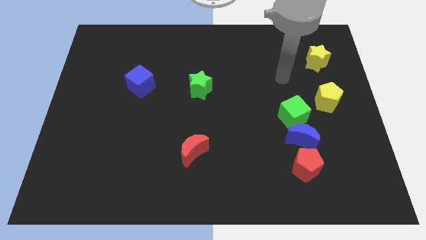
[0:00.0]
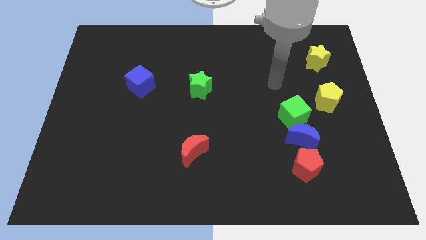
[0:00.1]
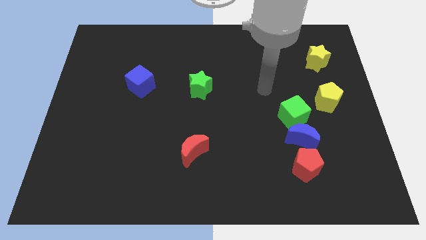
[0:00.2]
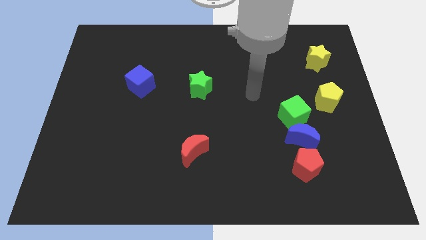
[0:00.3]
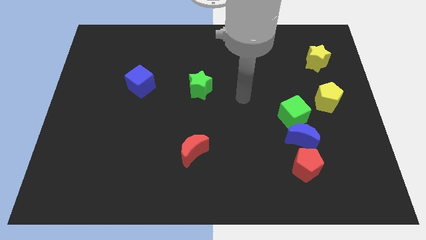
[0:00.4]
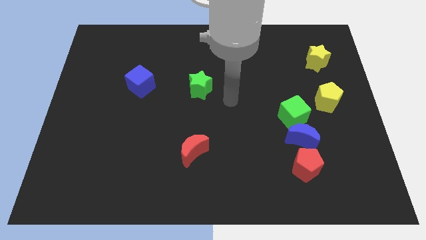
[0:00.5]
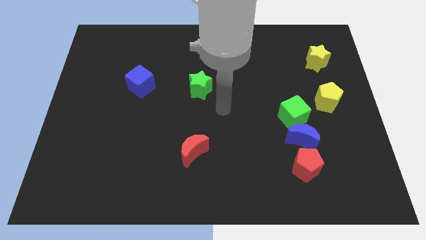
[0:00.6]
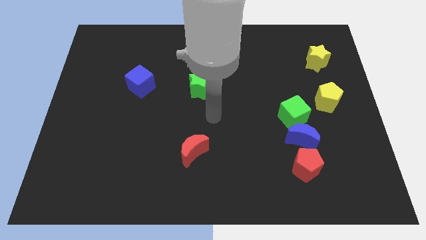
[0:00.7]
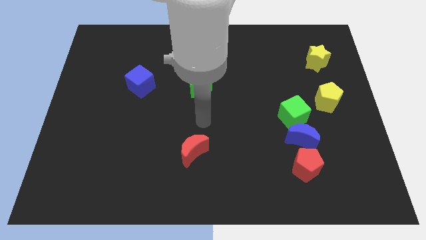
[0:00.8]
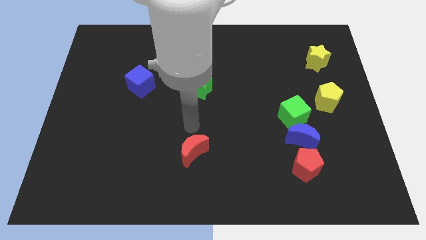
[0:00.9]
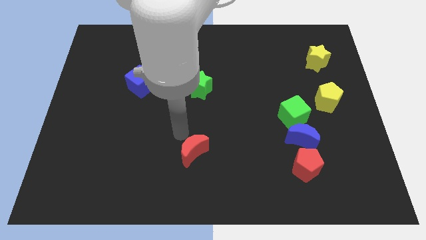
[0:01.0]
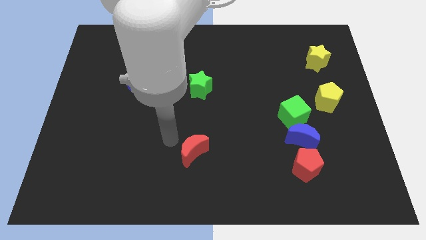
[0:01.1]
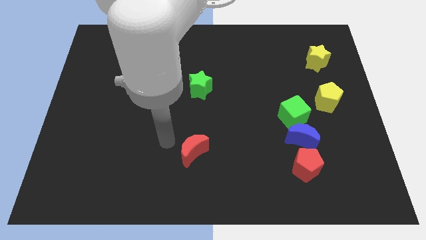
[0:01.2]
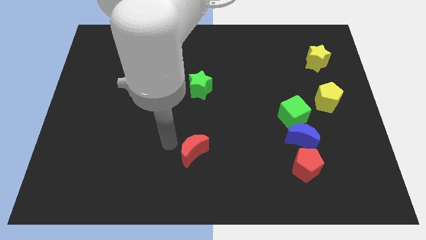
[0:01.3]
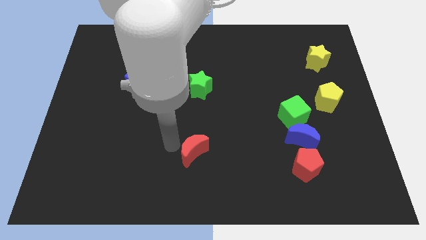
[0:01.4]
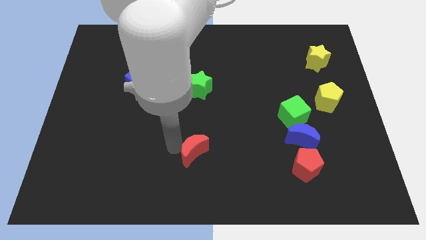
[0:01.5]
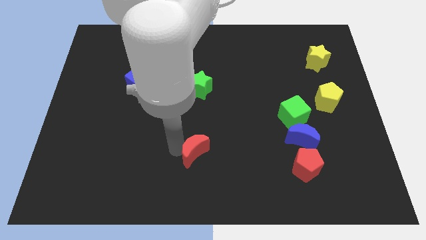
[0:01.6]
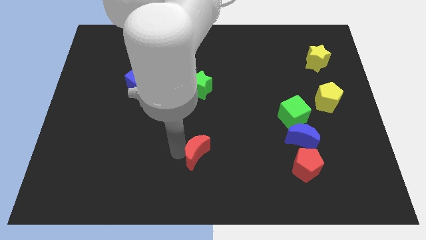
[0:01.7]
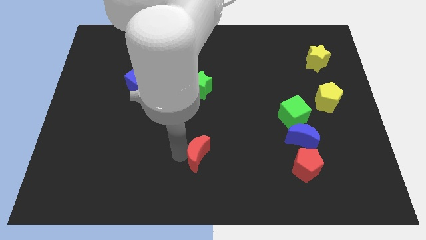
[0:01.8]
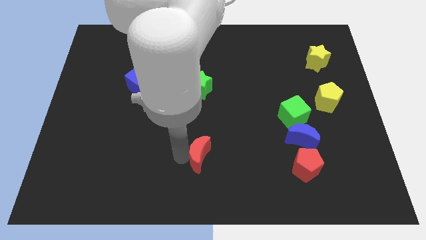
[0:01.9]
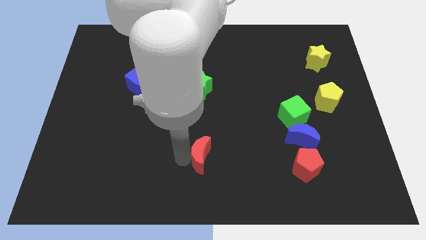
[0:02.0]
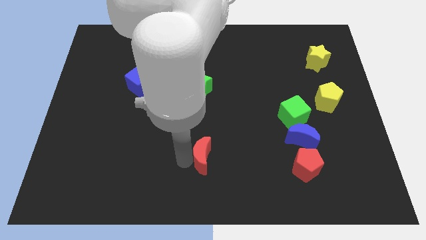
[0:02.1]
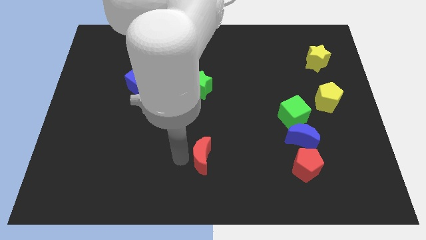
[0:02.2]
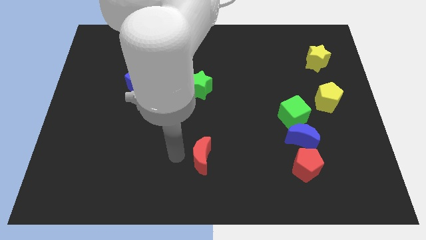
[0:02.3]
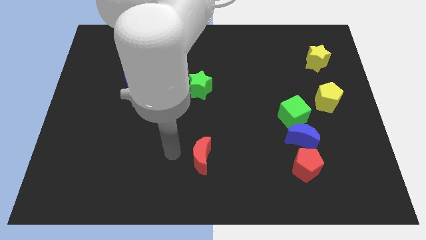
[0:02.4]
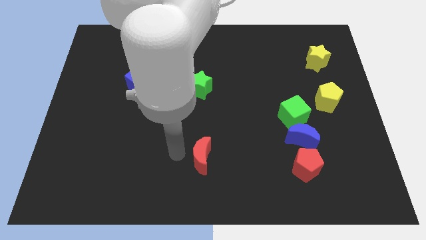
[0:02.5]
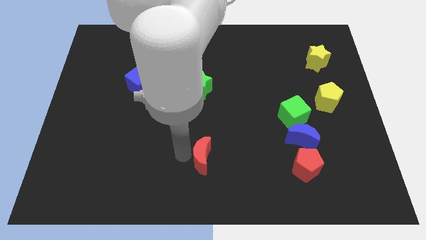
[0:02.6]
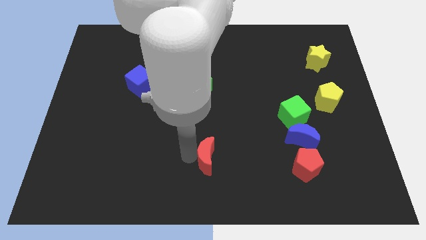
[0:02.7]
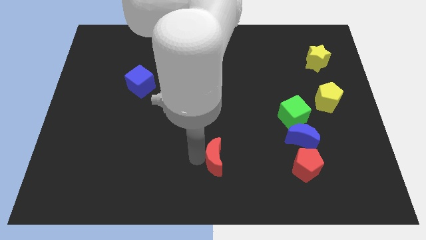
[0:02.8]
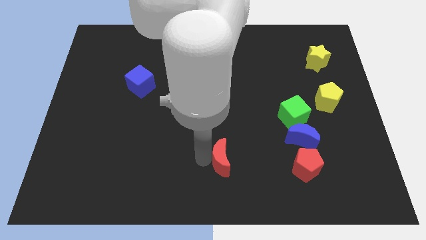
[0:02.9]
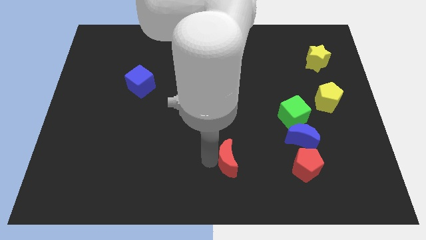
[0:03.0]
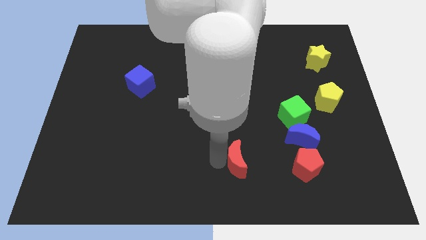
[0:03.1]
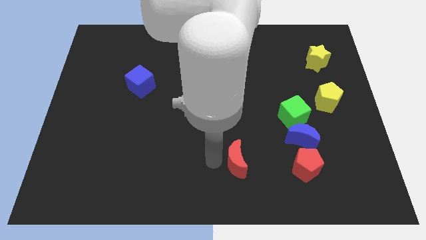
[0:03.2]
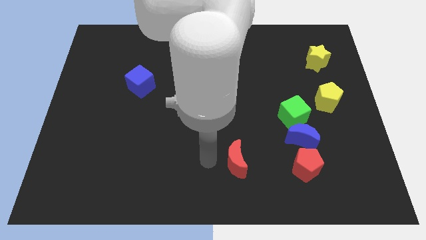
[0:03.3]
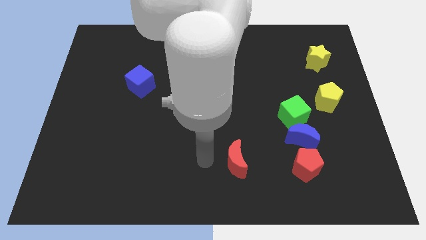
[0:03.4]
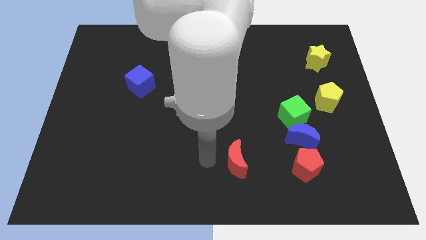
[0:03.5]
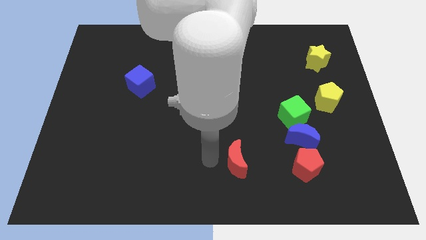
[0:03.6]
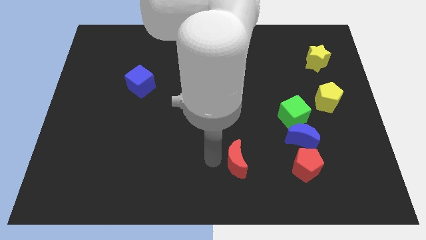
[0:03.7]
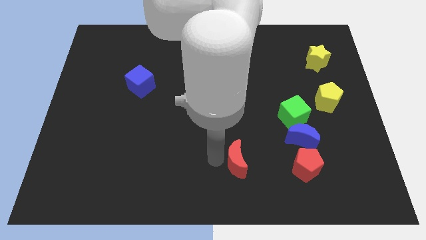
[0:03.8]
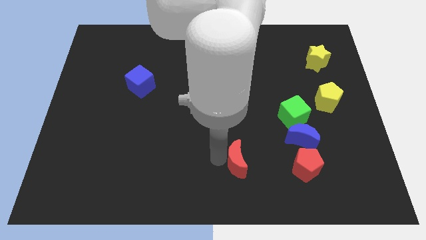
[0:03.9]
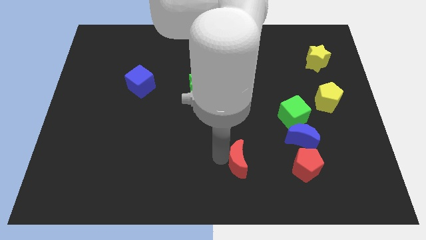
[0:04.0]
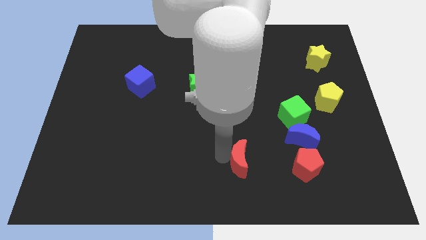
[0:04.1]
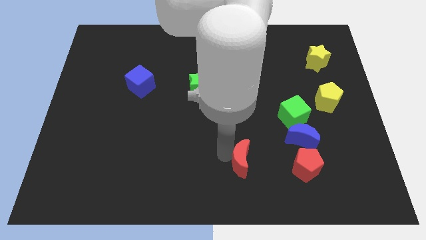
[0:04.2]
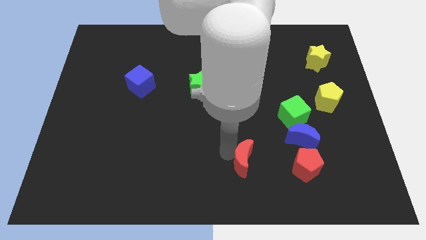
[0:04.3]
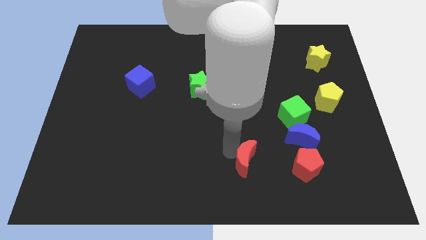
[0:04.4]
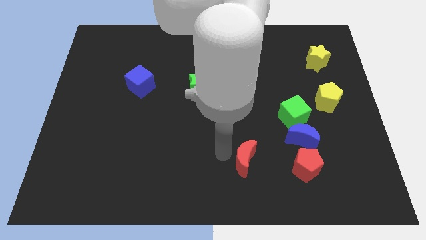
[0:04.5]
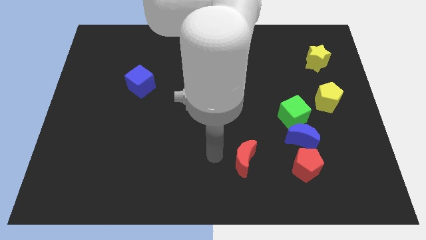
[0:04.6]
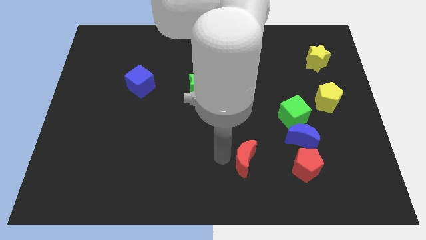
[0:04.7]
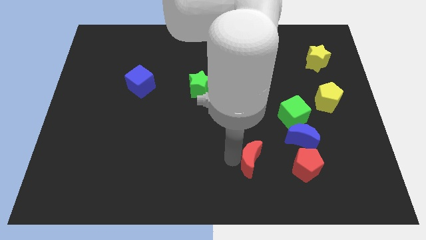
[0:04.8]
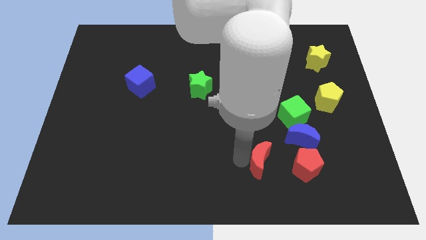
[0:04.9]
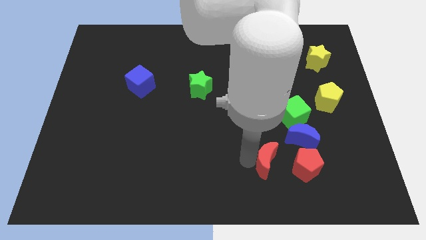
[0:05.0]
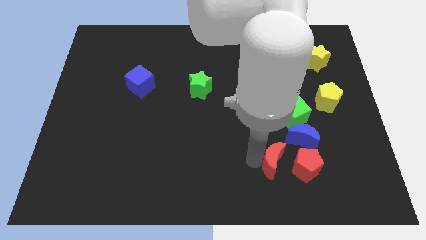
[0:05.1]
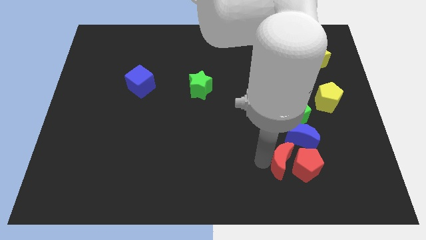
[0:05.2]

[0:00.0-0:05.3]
move the red moon towards the red pentagon

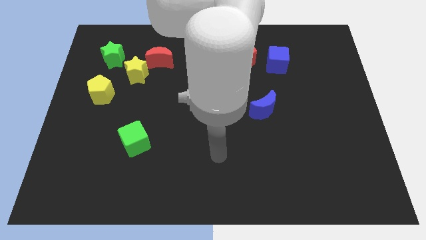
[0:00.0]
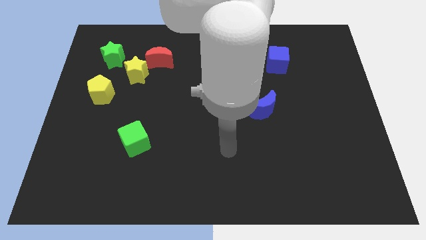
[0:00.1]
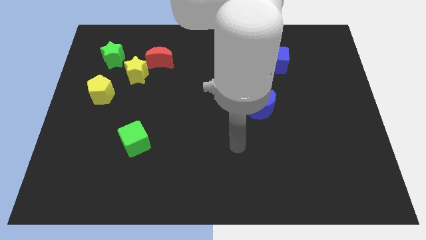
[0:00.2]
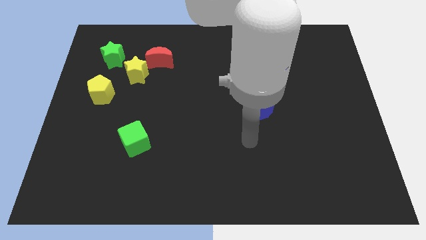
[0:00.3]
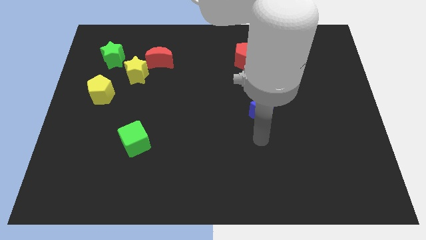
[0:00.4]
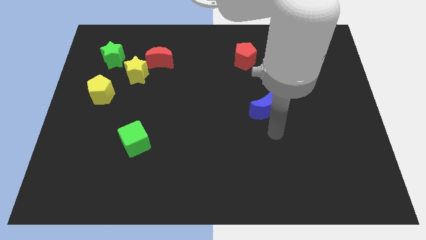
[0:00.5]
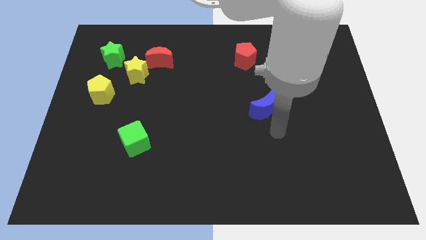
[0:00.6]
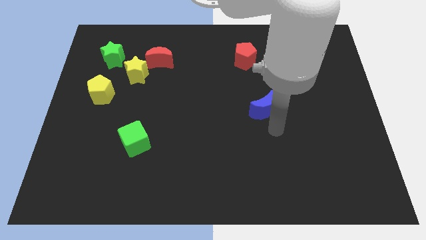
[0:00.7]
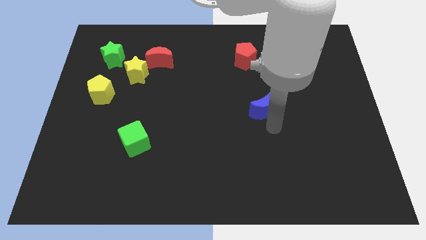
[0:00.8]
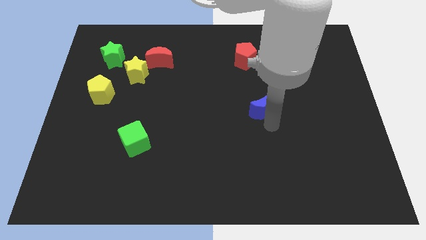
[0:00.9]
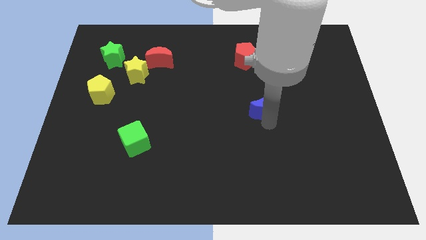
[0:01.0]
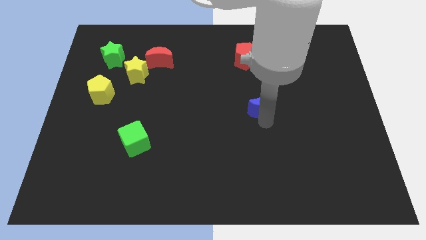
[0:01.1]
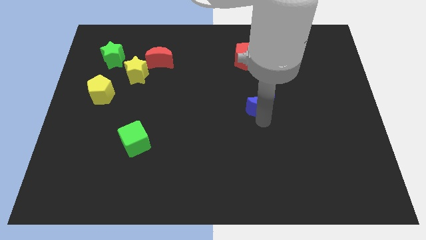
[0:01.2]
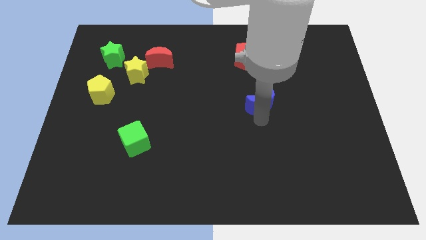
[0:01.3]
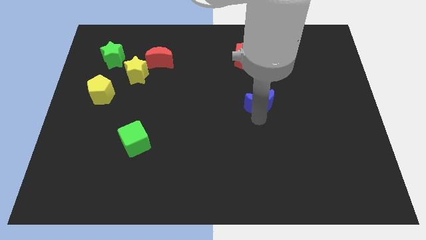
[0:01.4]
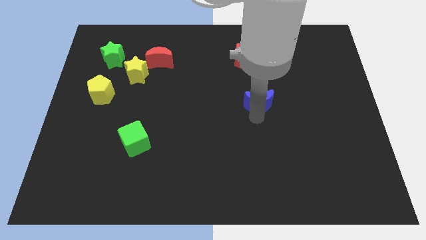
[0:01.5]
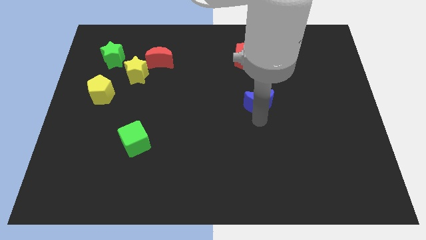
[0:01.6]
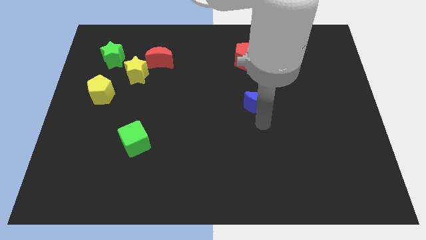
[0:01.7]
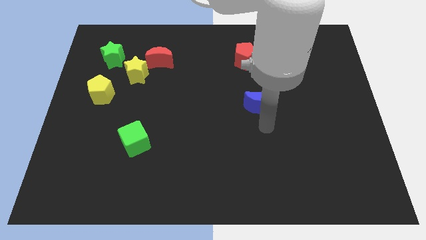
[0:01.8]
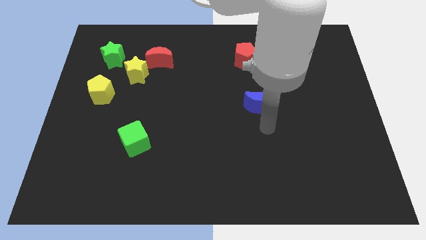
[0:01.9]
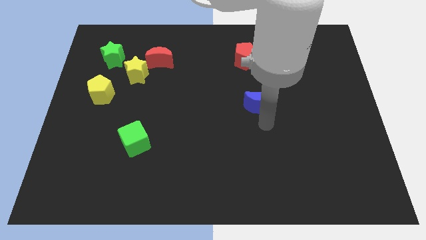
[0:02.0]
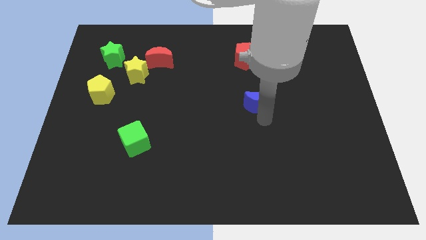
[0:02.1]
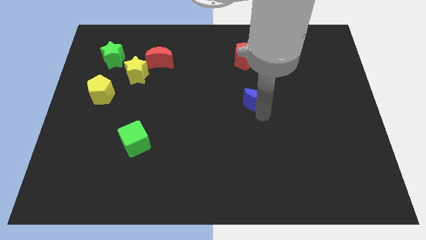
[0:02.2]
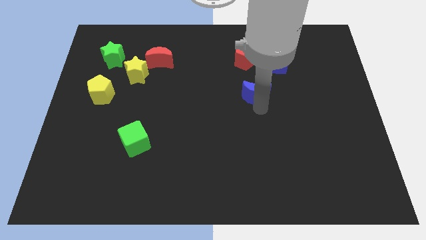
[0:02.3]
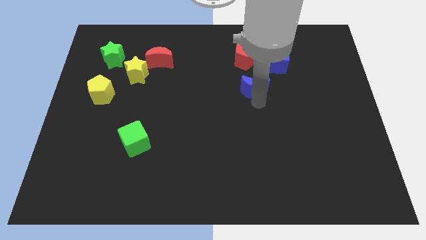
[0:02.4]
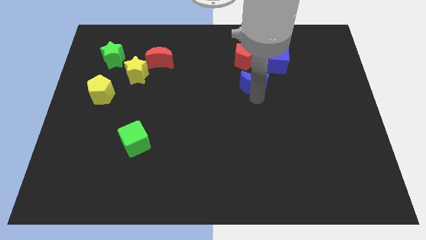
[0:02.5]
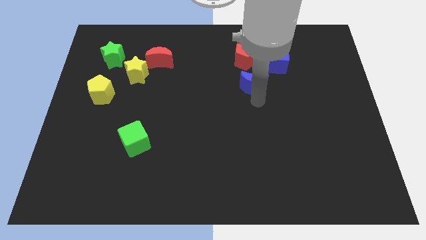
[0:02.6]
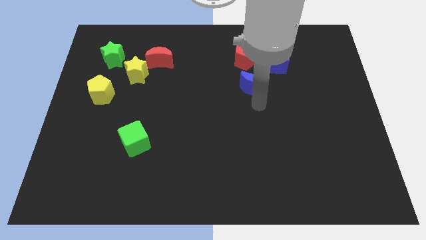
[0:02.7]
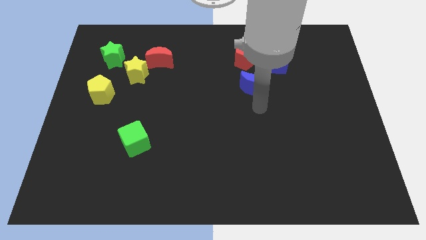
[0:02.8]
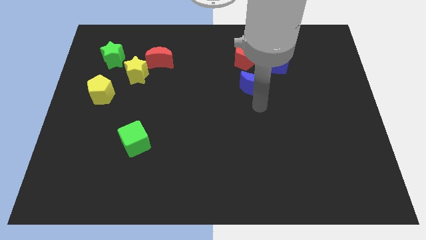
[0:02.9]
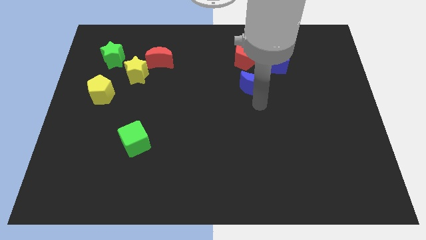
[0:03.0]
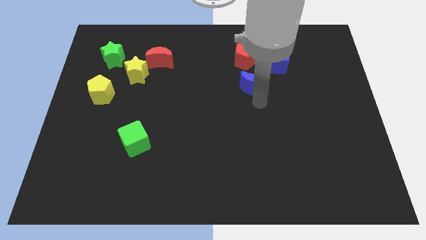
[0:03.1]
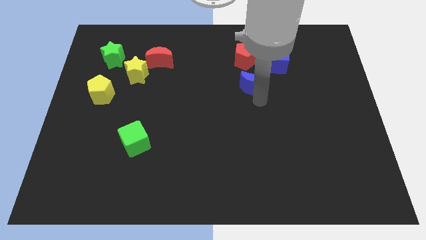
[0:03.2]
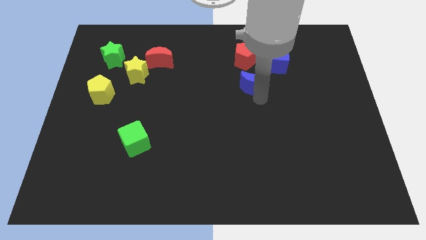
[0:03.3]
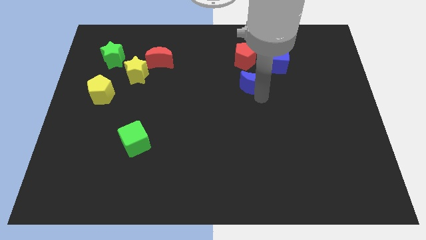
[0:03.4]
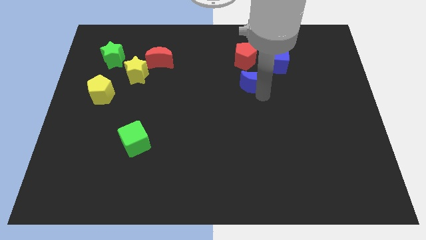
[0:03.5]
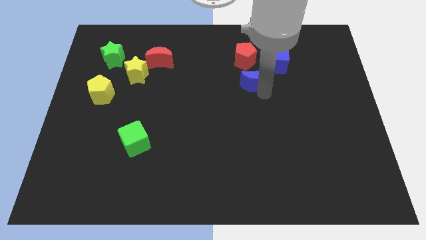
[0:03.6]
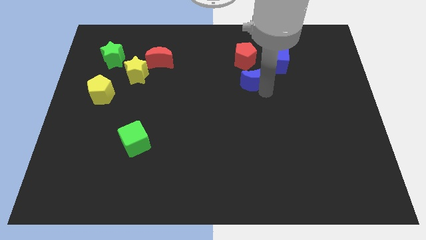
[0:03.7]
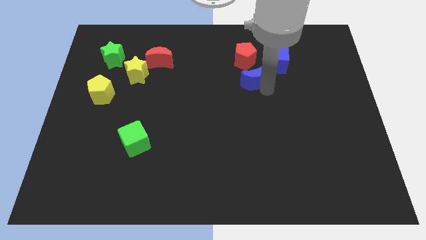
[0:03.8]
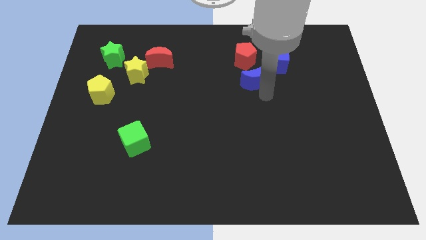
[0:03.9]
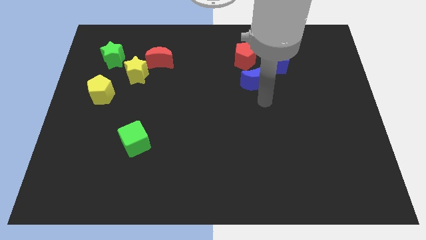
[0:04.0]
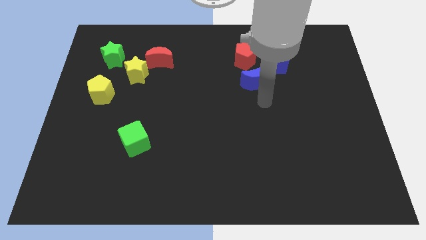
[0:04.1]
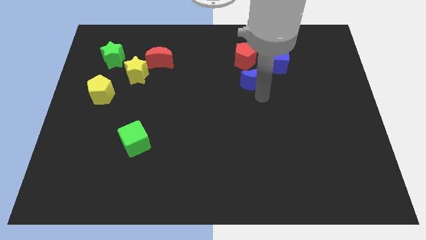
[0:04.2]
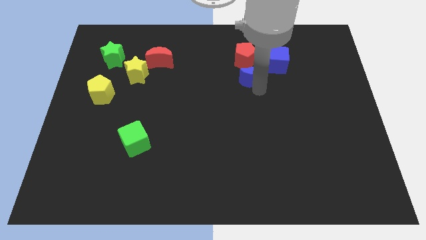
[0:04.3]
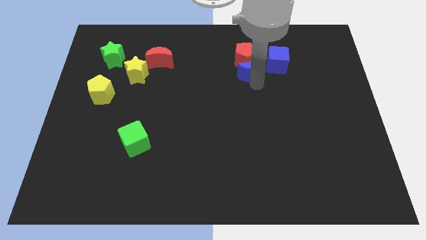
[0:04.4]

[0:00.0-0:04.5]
move the blue moon next to the red pentagon
